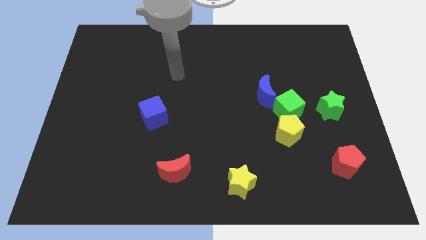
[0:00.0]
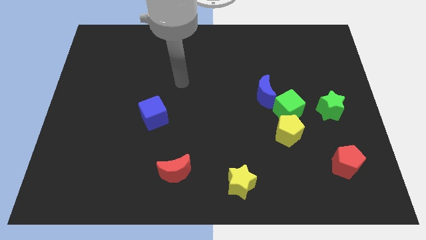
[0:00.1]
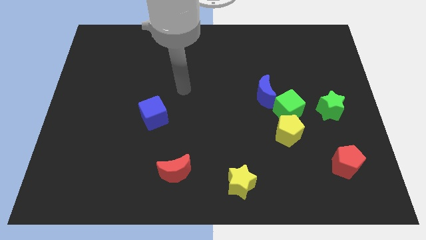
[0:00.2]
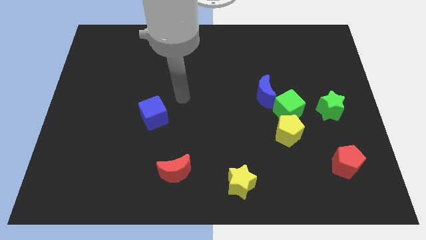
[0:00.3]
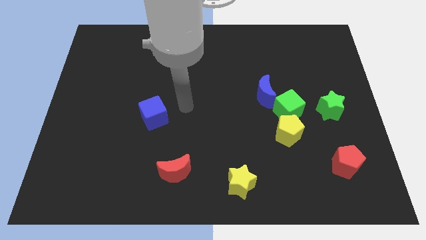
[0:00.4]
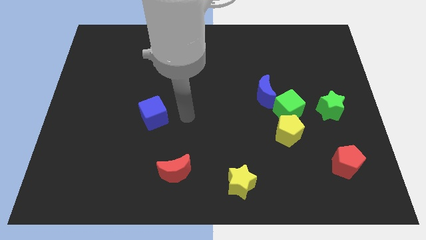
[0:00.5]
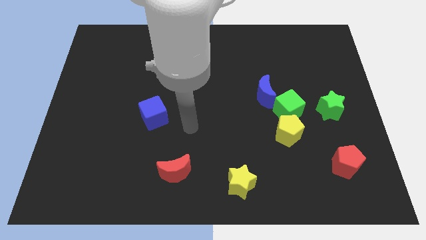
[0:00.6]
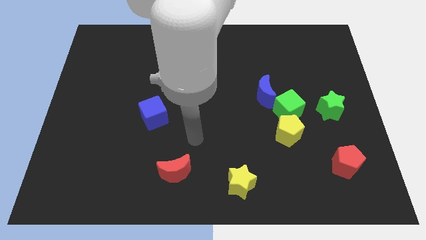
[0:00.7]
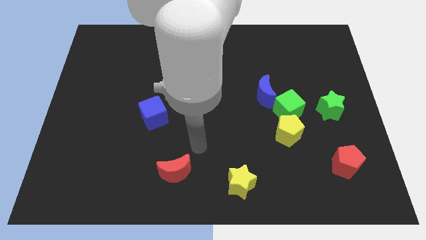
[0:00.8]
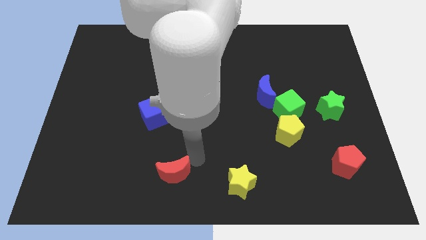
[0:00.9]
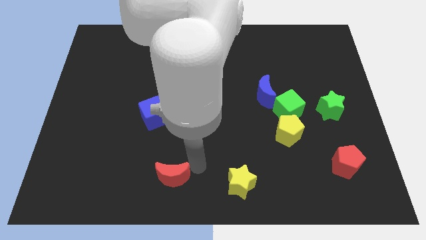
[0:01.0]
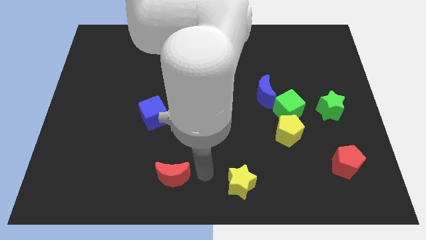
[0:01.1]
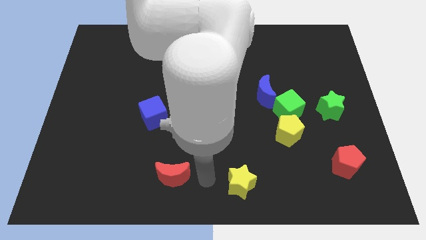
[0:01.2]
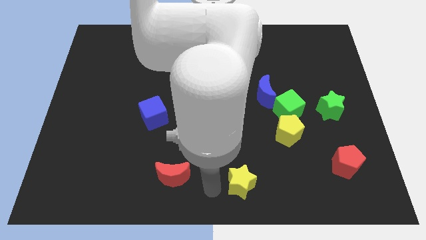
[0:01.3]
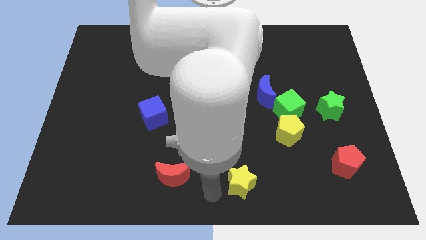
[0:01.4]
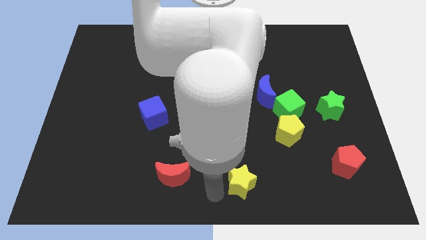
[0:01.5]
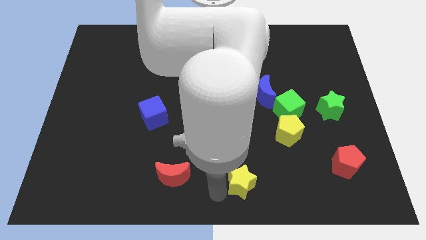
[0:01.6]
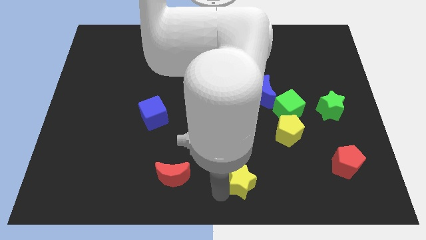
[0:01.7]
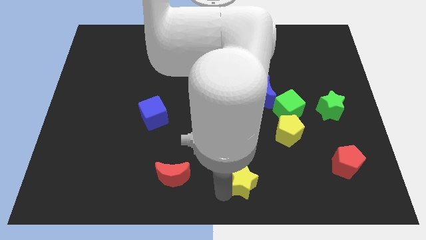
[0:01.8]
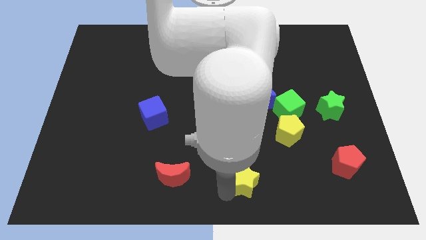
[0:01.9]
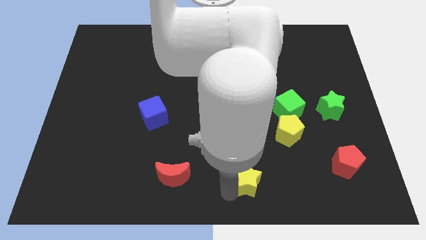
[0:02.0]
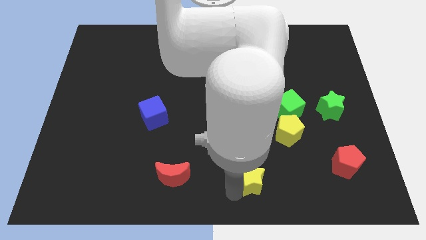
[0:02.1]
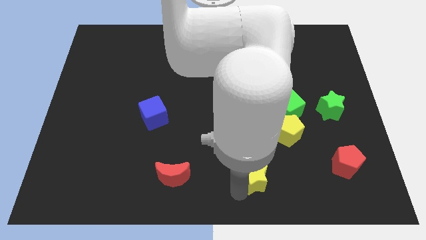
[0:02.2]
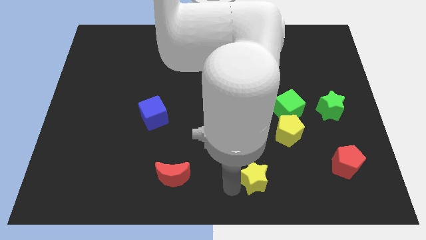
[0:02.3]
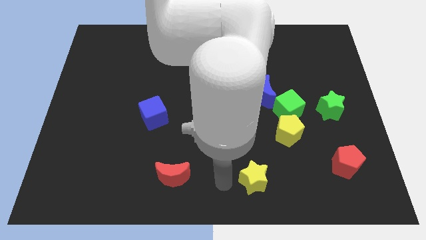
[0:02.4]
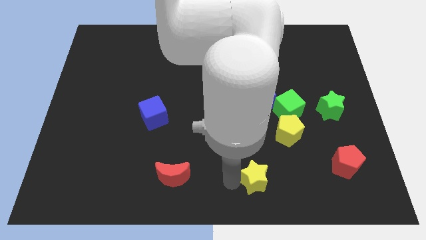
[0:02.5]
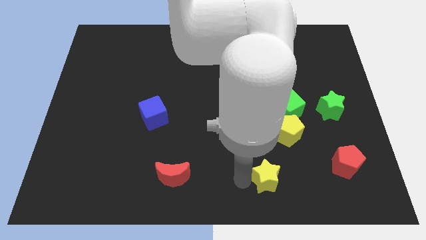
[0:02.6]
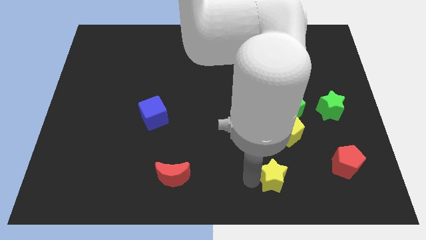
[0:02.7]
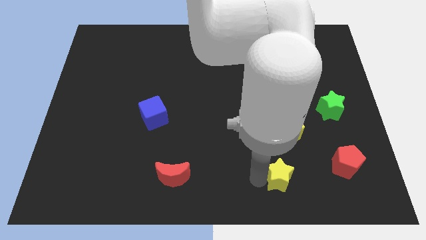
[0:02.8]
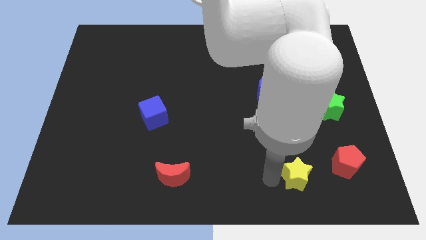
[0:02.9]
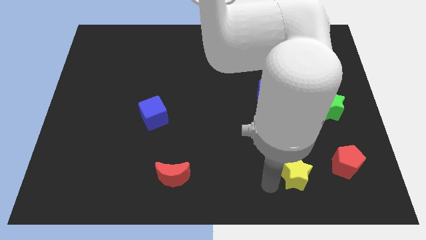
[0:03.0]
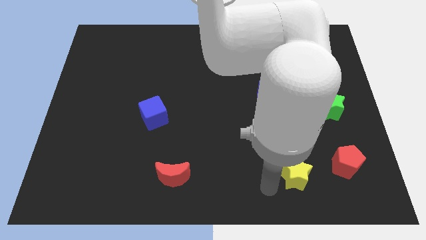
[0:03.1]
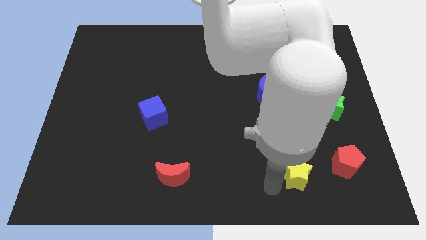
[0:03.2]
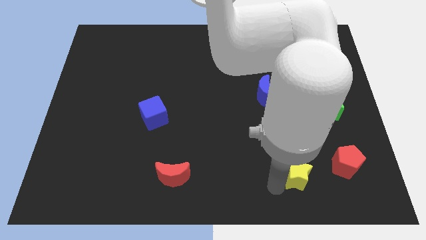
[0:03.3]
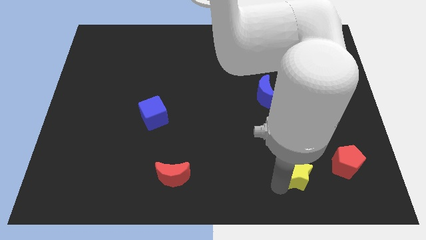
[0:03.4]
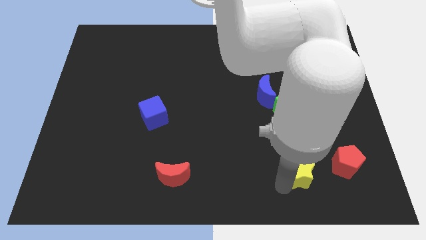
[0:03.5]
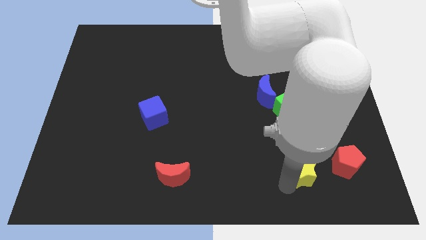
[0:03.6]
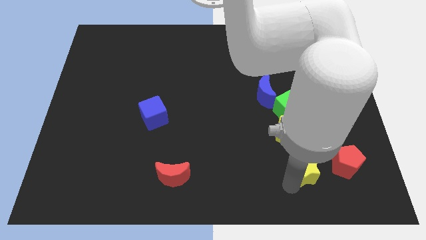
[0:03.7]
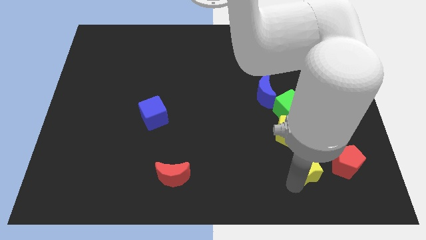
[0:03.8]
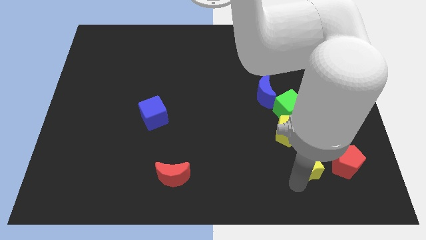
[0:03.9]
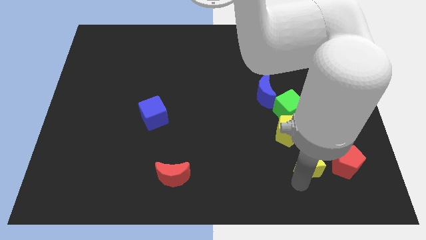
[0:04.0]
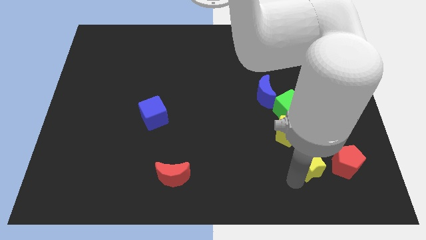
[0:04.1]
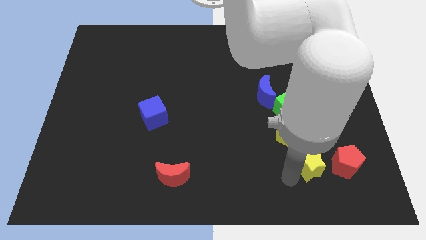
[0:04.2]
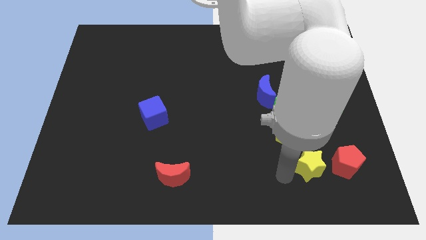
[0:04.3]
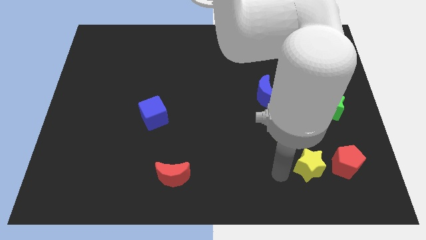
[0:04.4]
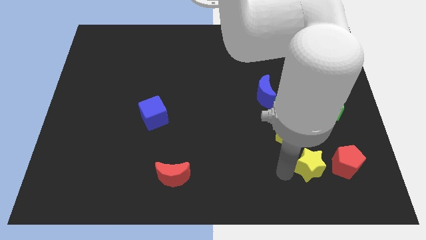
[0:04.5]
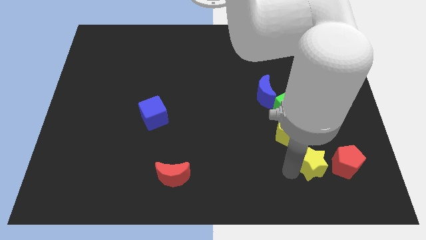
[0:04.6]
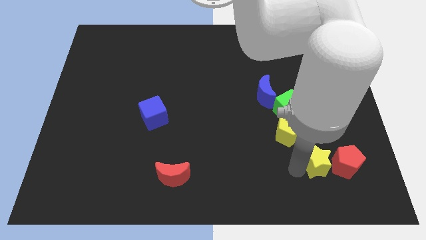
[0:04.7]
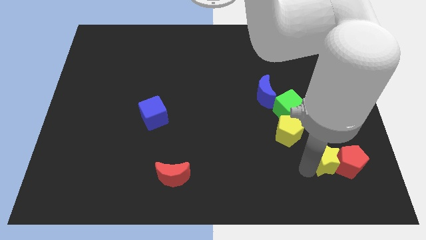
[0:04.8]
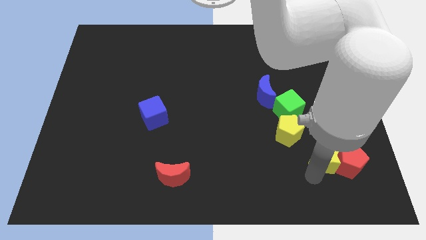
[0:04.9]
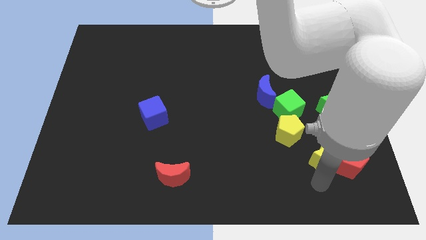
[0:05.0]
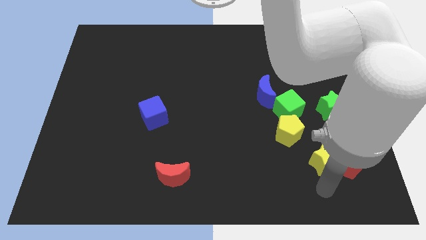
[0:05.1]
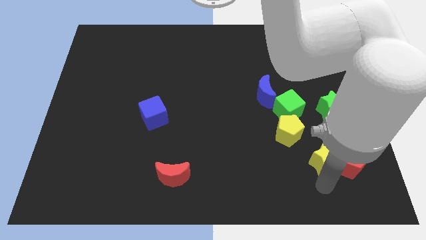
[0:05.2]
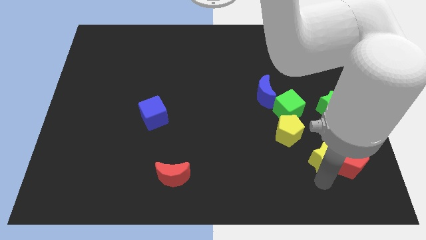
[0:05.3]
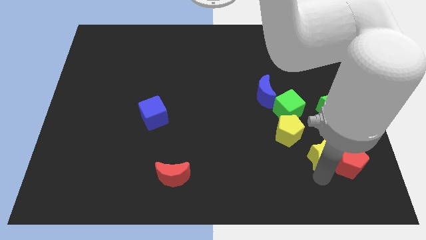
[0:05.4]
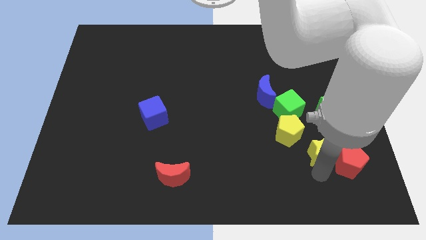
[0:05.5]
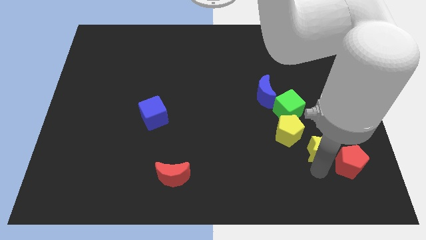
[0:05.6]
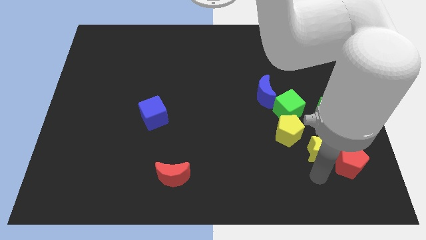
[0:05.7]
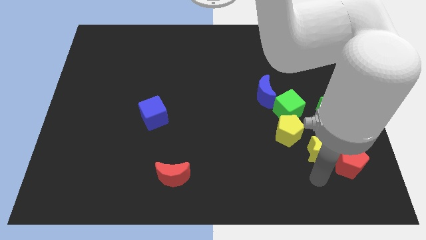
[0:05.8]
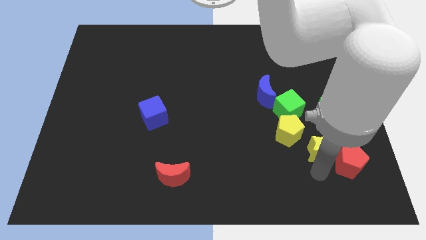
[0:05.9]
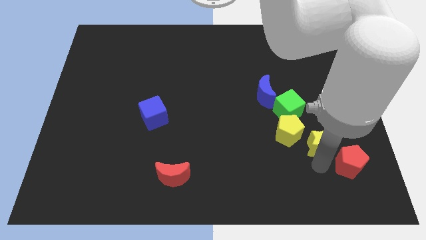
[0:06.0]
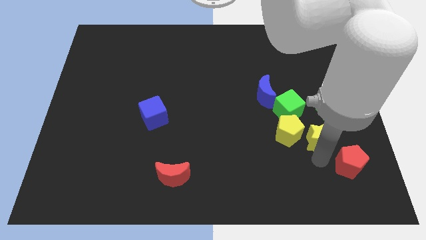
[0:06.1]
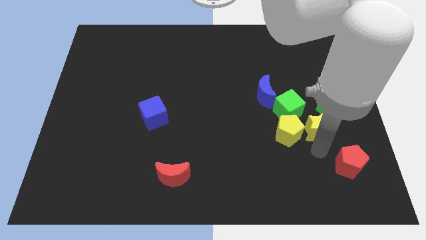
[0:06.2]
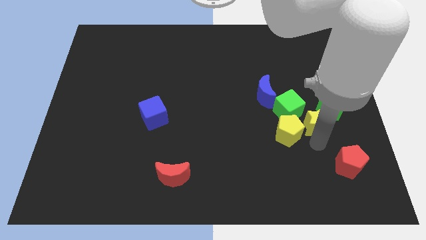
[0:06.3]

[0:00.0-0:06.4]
slide the yellow star to the green star

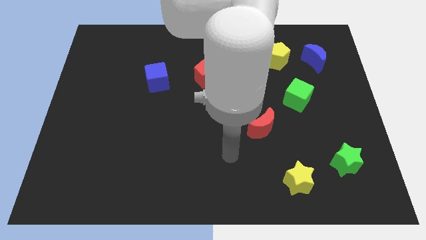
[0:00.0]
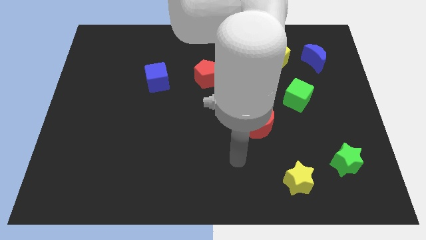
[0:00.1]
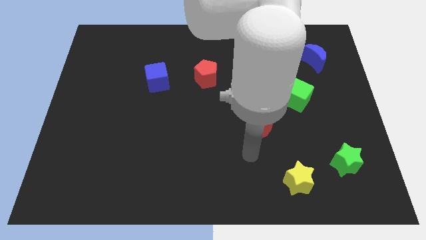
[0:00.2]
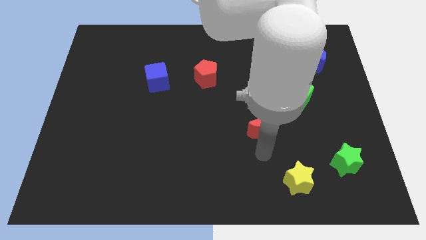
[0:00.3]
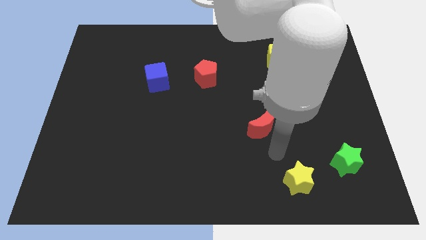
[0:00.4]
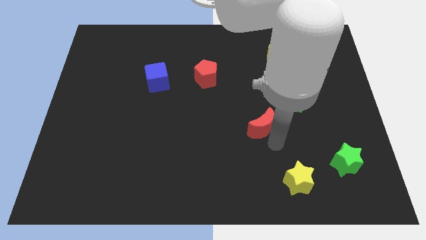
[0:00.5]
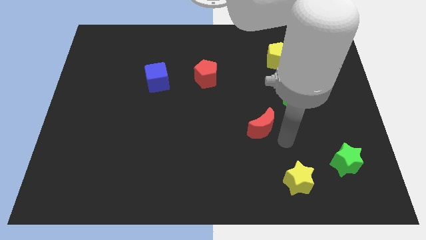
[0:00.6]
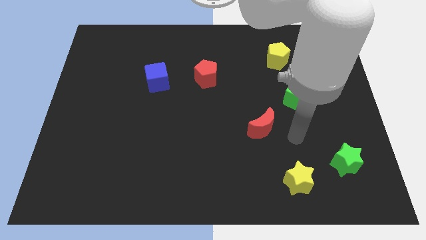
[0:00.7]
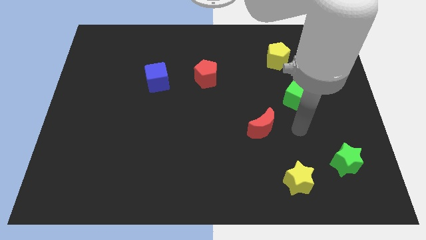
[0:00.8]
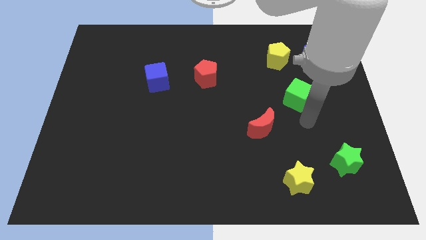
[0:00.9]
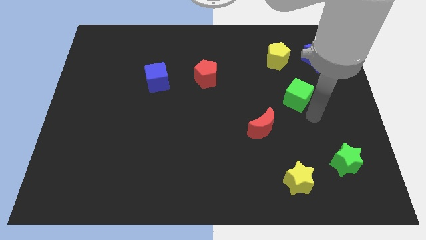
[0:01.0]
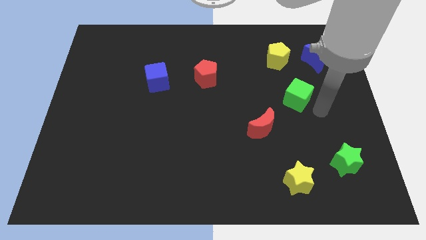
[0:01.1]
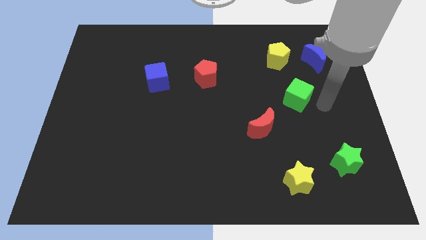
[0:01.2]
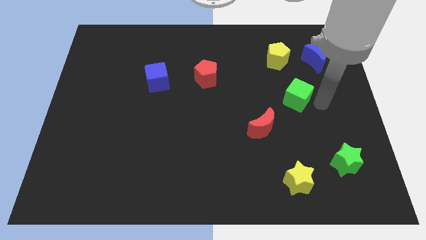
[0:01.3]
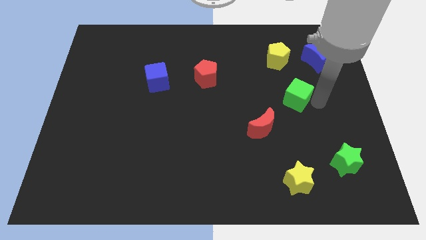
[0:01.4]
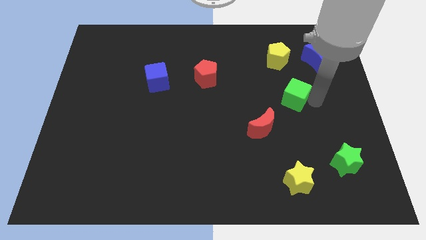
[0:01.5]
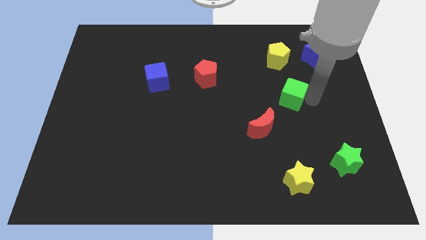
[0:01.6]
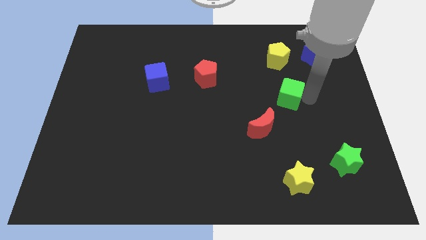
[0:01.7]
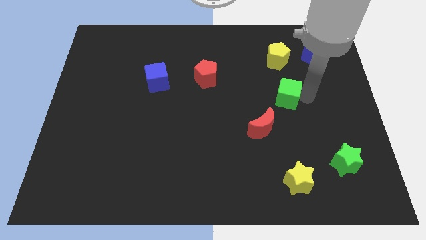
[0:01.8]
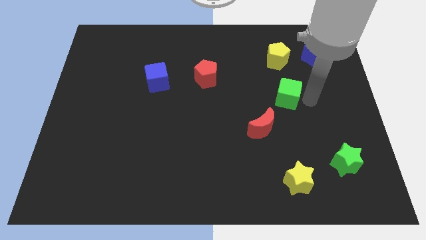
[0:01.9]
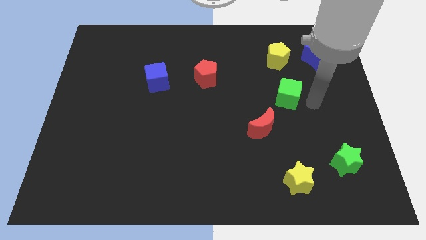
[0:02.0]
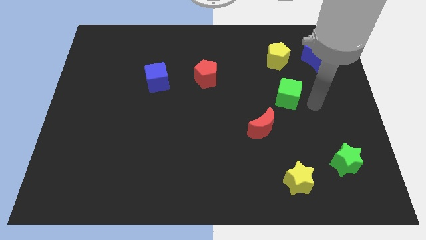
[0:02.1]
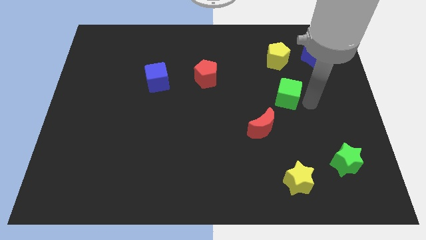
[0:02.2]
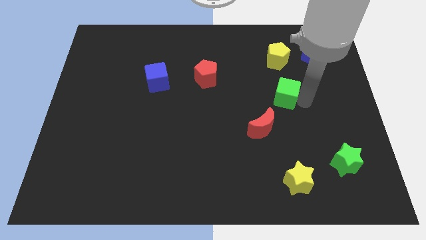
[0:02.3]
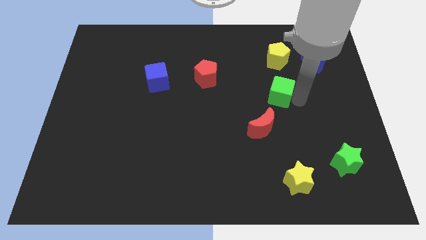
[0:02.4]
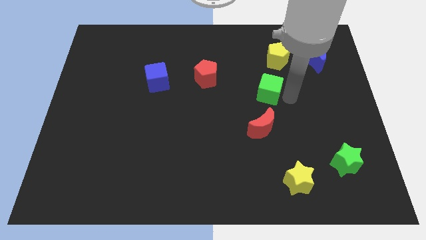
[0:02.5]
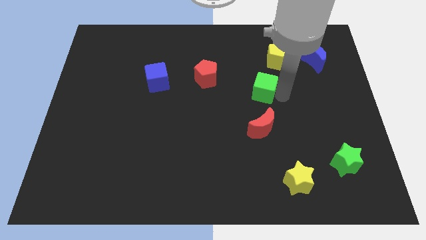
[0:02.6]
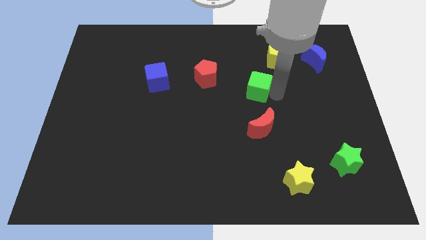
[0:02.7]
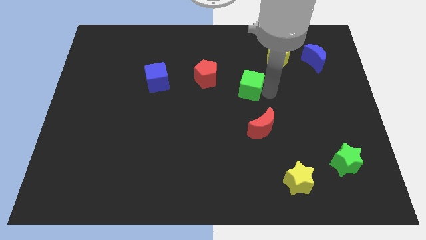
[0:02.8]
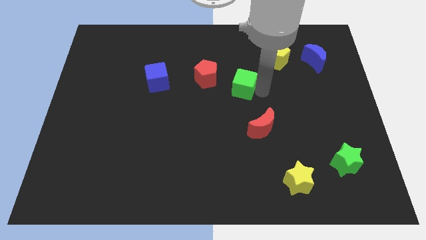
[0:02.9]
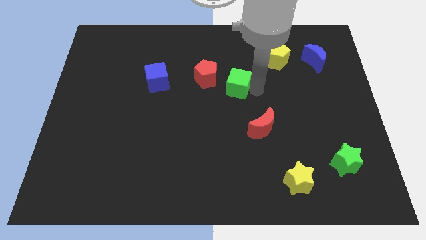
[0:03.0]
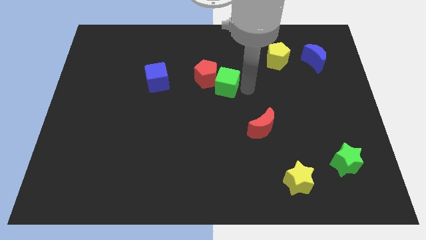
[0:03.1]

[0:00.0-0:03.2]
slide the green cube close to the red pentagon
